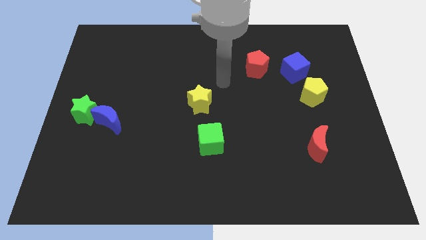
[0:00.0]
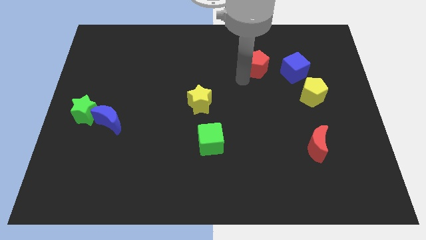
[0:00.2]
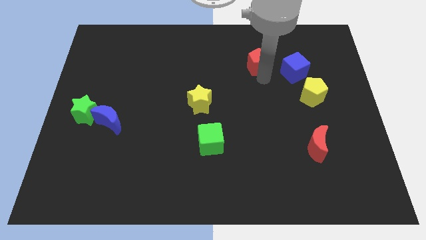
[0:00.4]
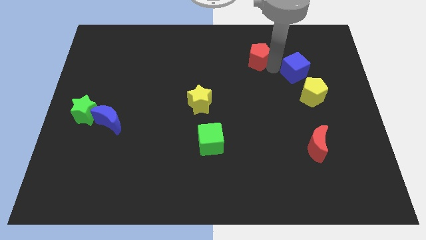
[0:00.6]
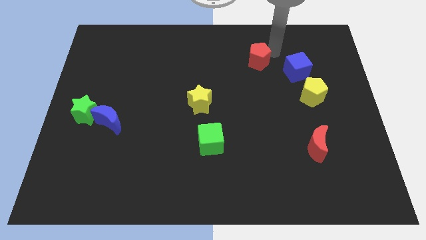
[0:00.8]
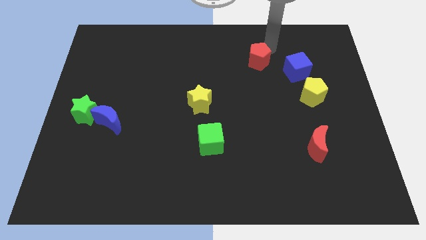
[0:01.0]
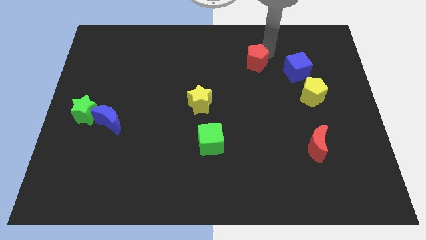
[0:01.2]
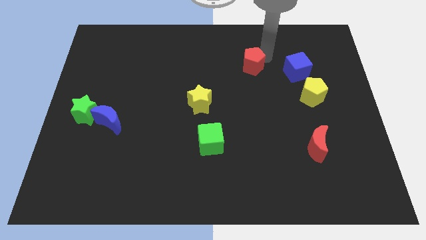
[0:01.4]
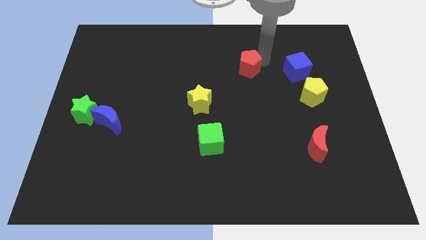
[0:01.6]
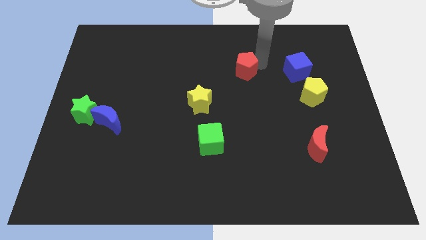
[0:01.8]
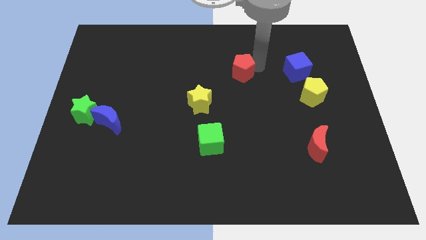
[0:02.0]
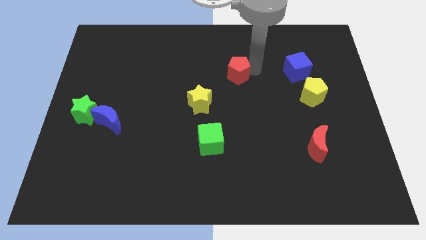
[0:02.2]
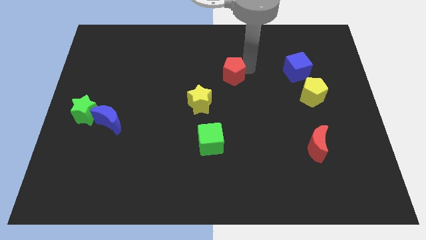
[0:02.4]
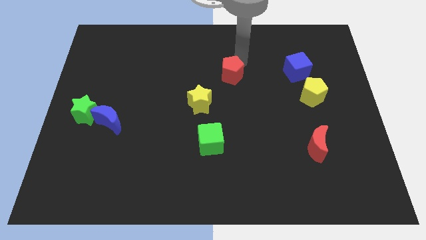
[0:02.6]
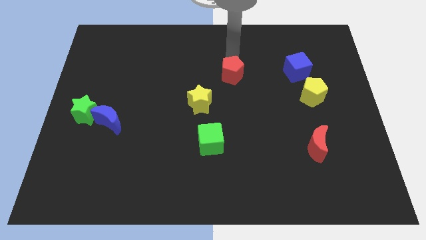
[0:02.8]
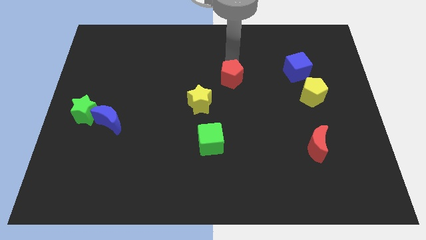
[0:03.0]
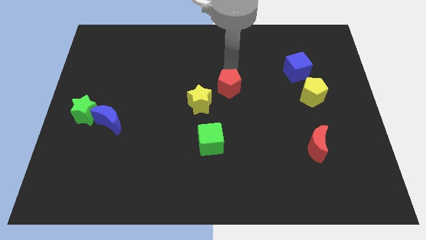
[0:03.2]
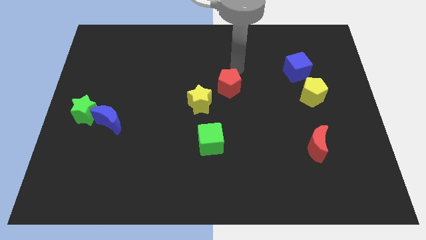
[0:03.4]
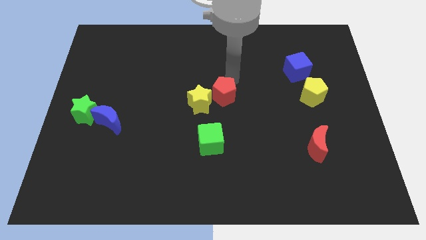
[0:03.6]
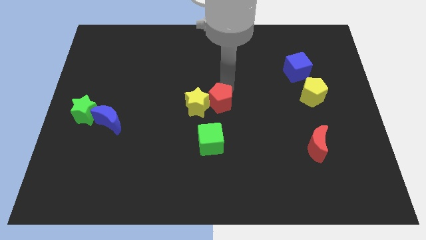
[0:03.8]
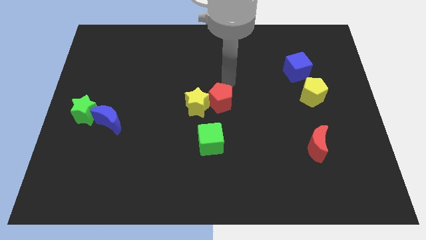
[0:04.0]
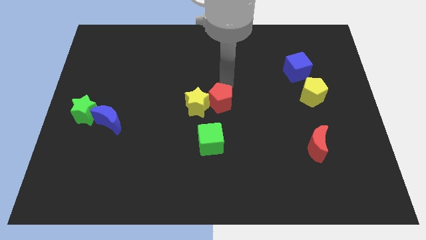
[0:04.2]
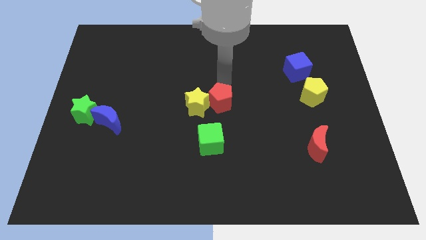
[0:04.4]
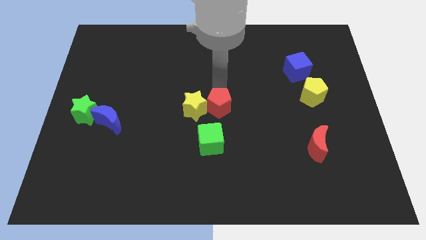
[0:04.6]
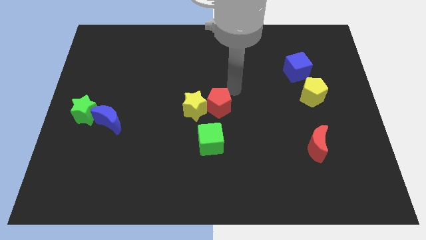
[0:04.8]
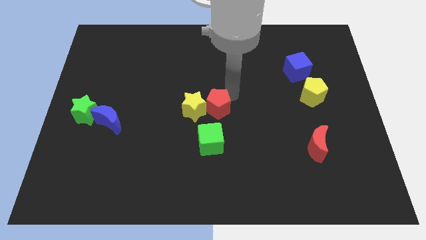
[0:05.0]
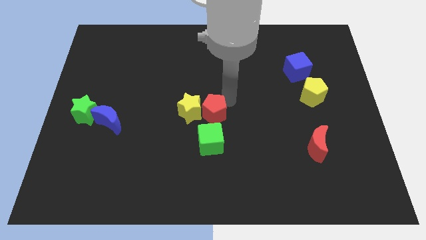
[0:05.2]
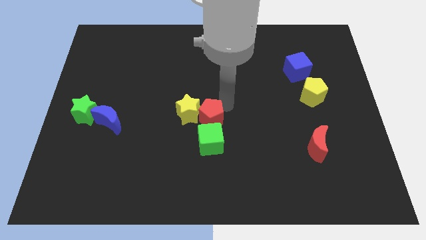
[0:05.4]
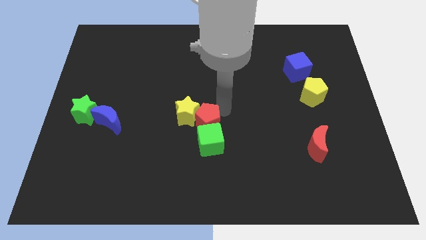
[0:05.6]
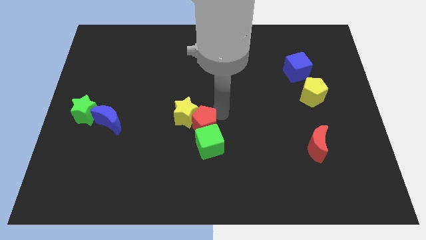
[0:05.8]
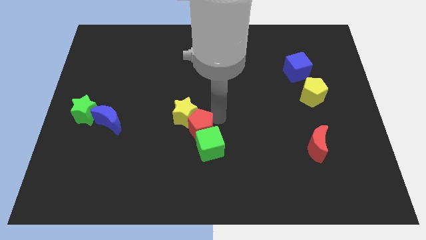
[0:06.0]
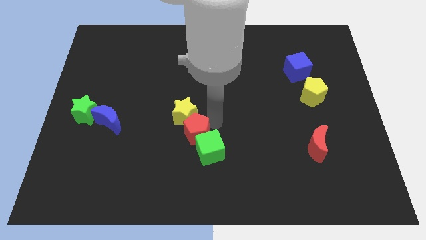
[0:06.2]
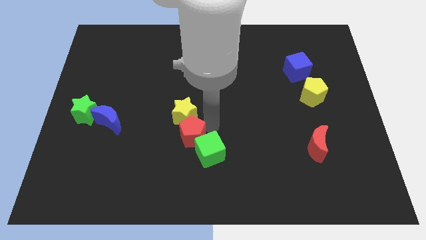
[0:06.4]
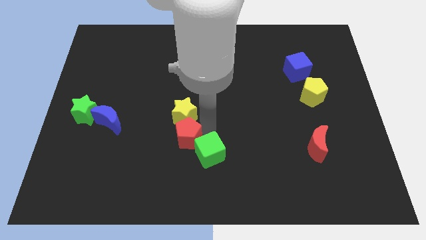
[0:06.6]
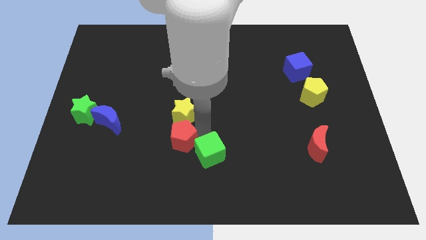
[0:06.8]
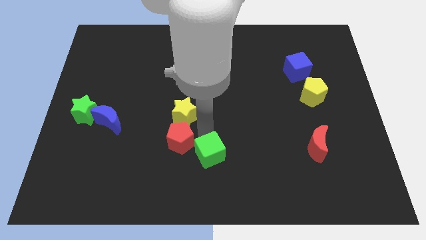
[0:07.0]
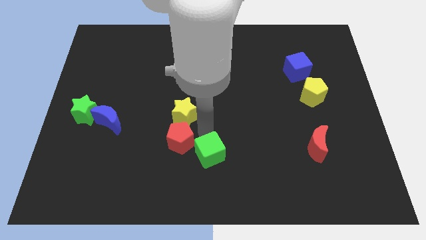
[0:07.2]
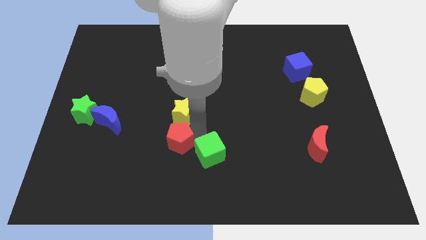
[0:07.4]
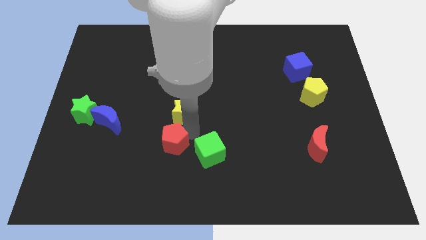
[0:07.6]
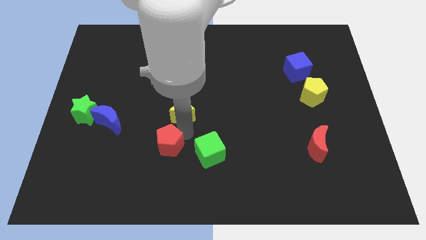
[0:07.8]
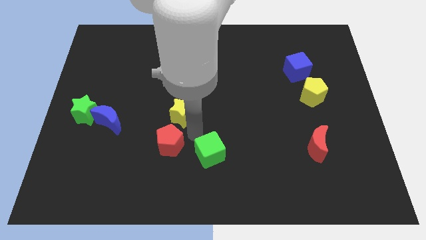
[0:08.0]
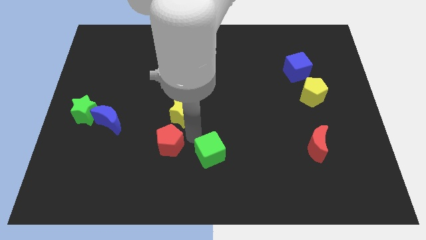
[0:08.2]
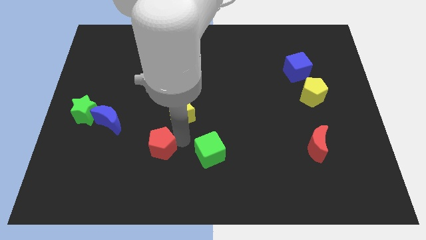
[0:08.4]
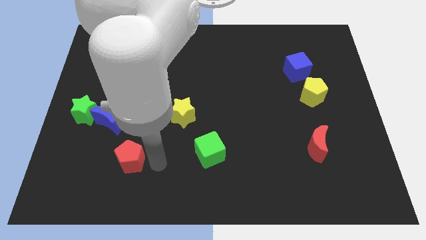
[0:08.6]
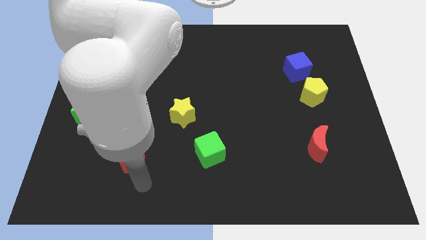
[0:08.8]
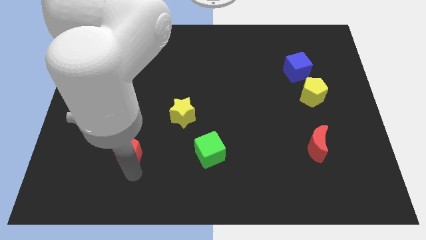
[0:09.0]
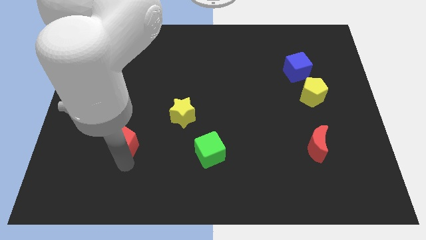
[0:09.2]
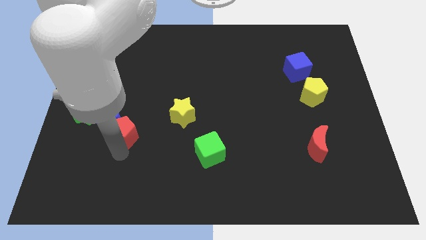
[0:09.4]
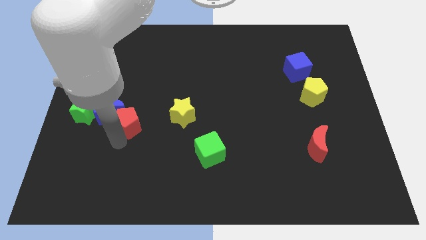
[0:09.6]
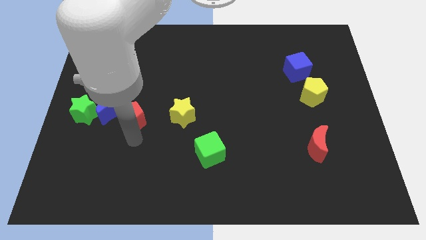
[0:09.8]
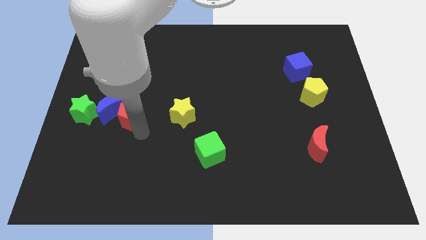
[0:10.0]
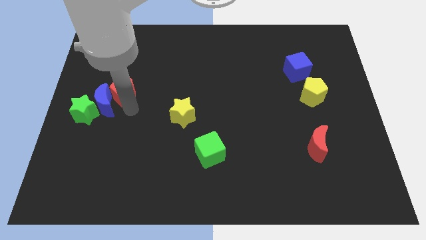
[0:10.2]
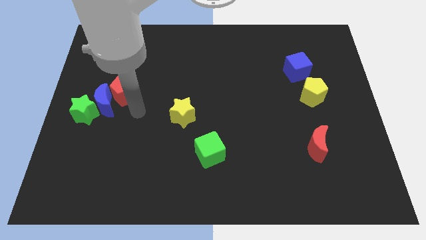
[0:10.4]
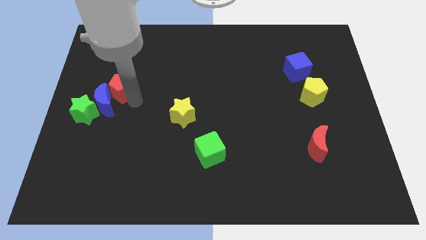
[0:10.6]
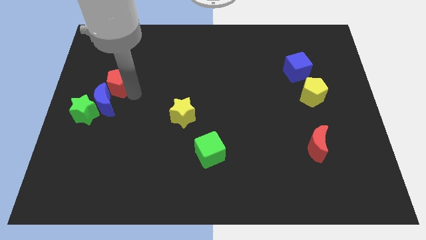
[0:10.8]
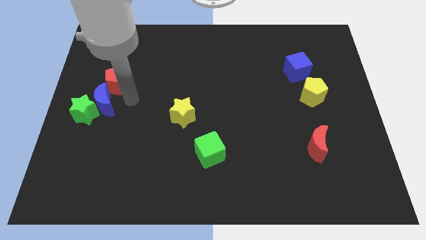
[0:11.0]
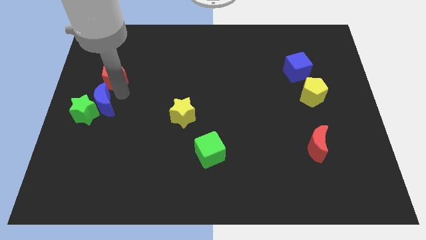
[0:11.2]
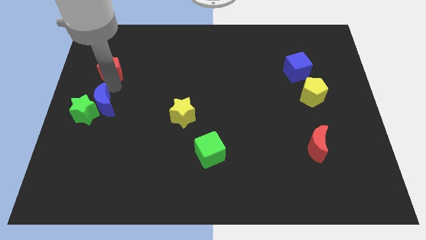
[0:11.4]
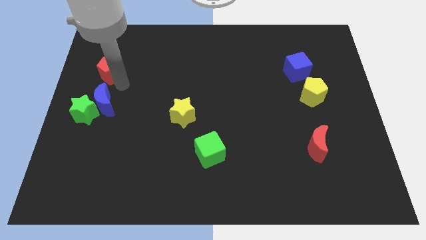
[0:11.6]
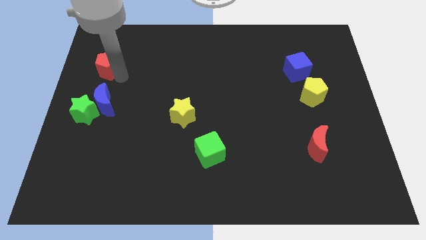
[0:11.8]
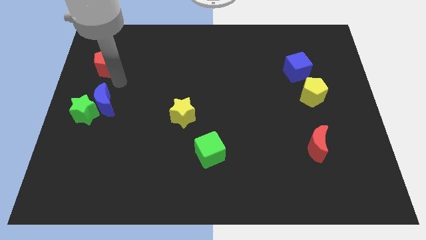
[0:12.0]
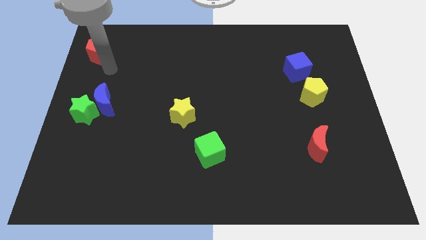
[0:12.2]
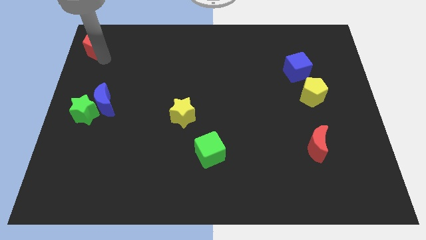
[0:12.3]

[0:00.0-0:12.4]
move the red pentagon to the top left
